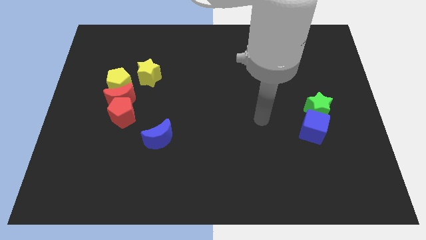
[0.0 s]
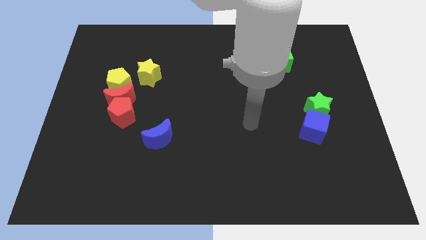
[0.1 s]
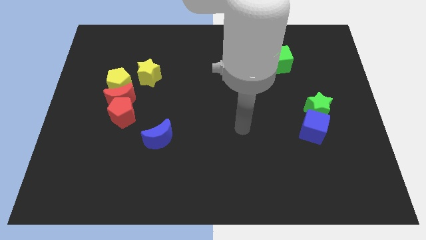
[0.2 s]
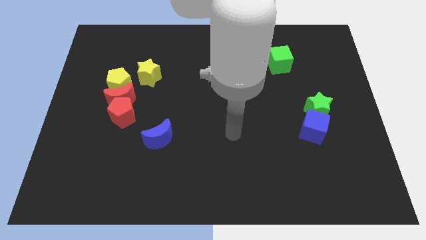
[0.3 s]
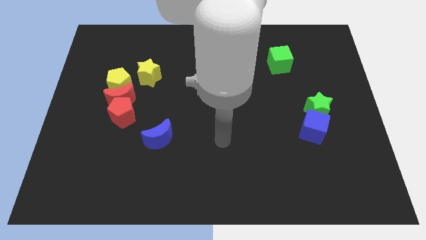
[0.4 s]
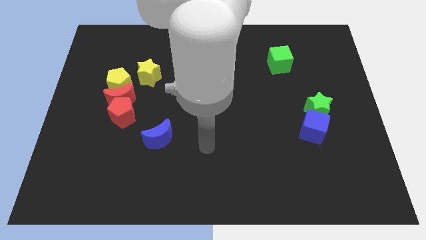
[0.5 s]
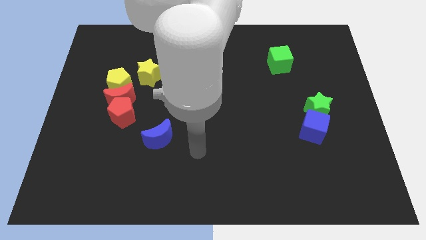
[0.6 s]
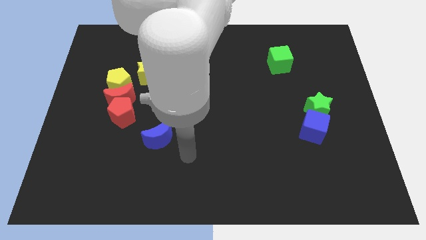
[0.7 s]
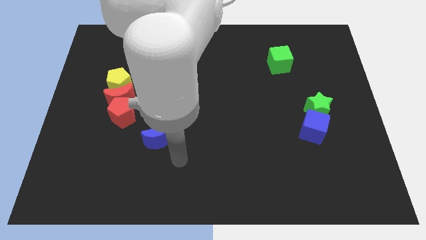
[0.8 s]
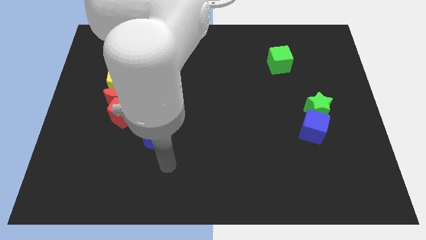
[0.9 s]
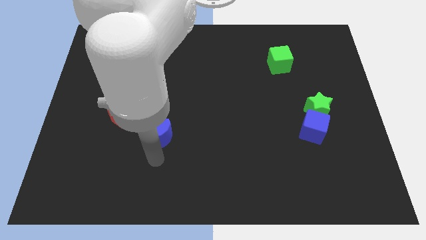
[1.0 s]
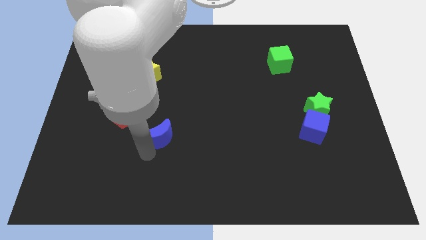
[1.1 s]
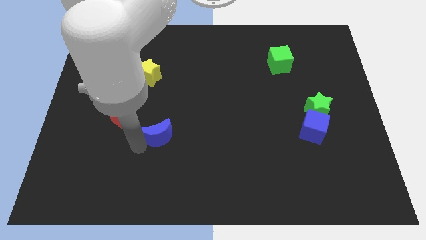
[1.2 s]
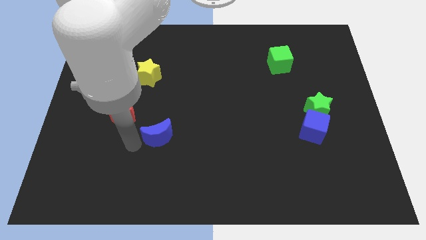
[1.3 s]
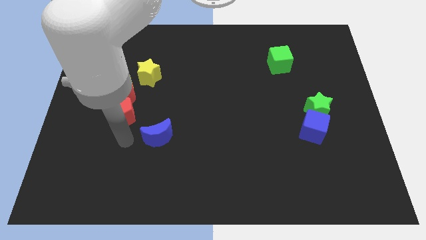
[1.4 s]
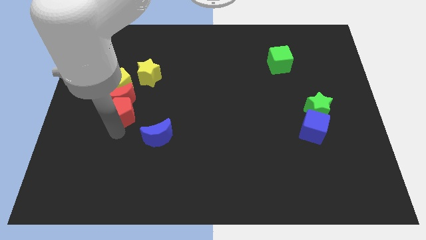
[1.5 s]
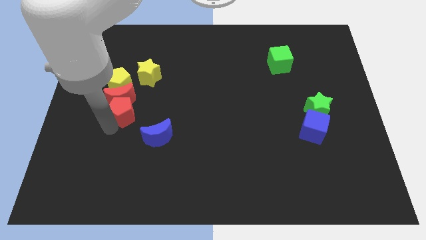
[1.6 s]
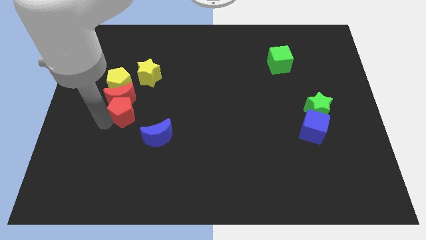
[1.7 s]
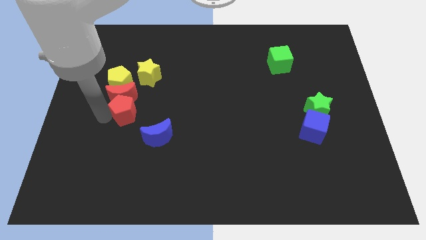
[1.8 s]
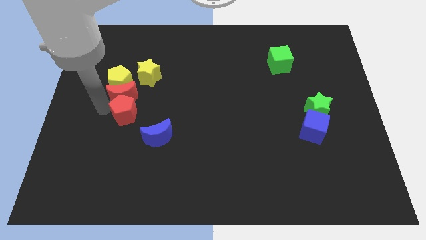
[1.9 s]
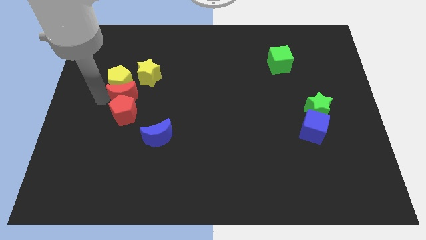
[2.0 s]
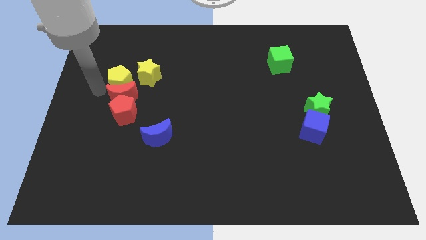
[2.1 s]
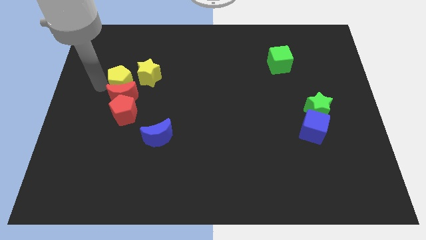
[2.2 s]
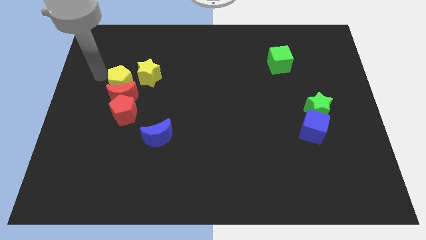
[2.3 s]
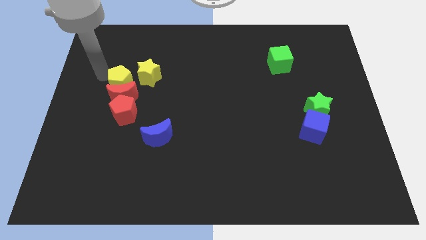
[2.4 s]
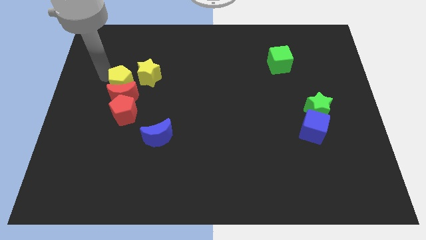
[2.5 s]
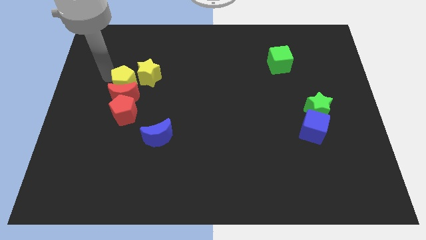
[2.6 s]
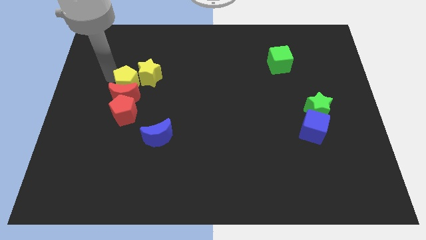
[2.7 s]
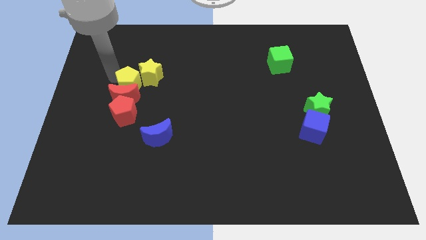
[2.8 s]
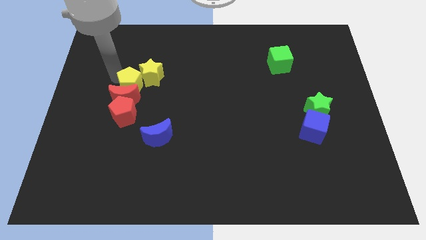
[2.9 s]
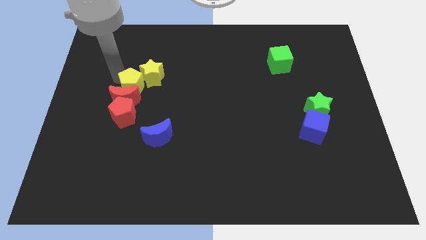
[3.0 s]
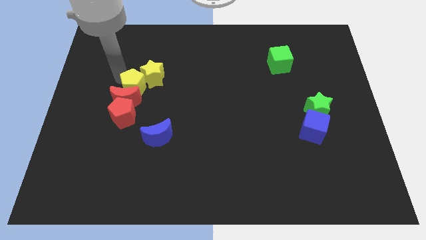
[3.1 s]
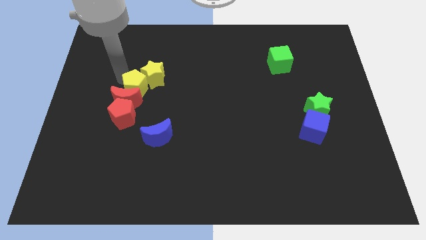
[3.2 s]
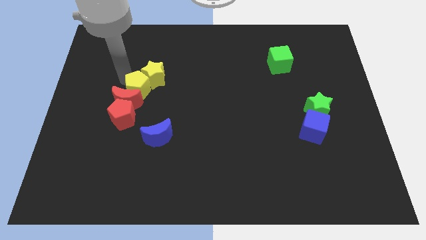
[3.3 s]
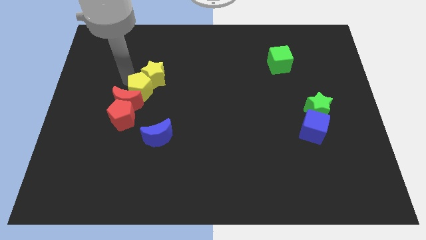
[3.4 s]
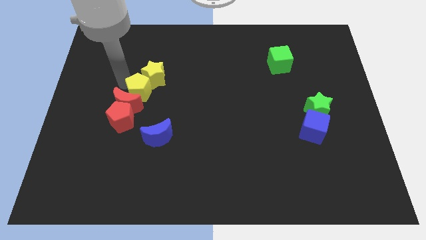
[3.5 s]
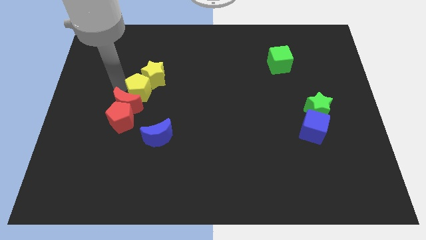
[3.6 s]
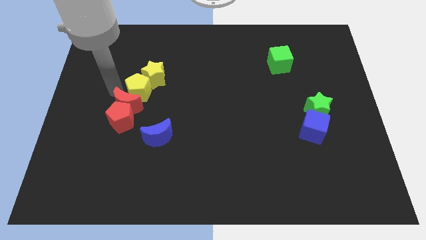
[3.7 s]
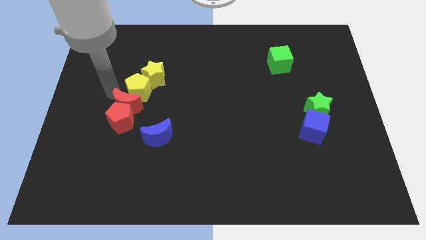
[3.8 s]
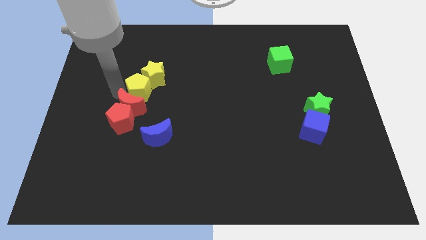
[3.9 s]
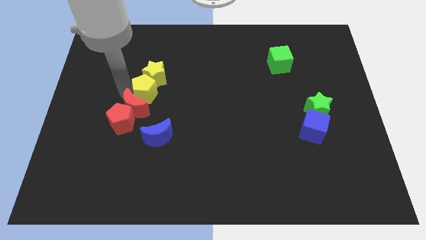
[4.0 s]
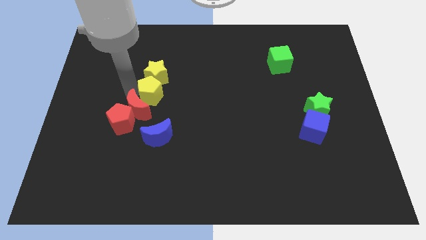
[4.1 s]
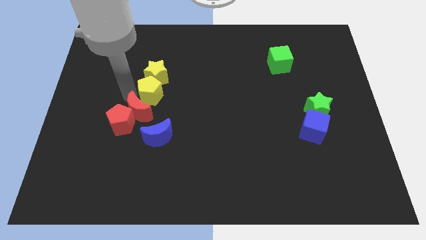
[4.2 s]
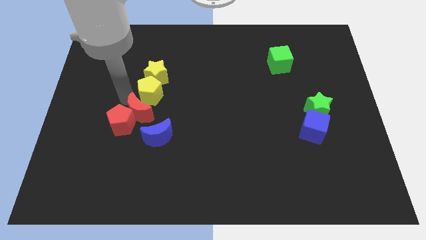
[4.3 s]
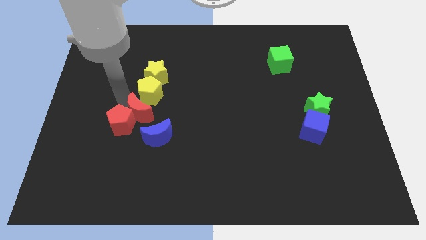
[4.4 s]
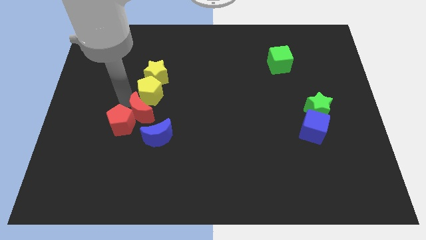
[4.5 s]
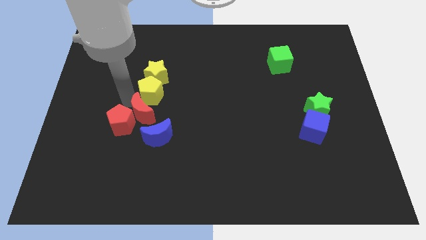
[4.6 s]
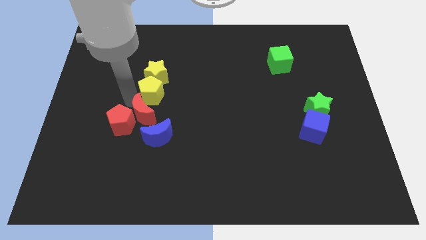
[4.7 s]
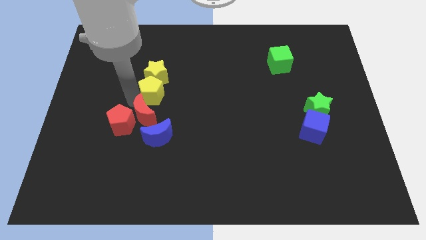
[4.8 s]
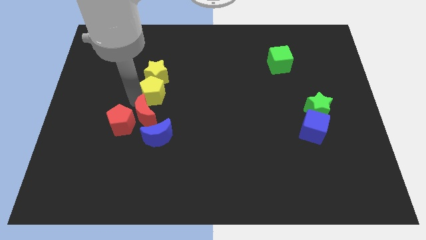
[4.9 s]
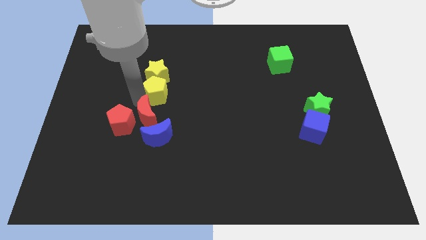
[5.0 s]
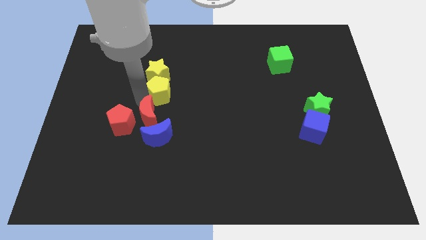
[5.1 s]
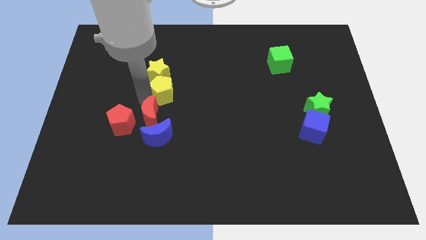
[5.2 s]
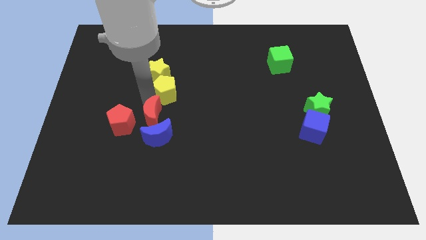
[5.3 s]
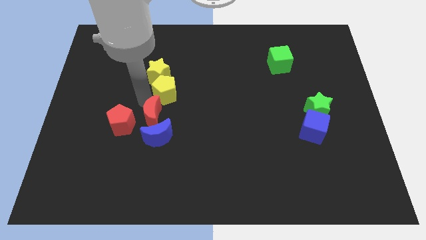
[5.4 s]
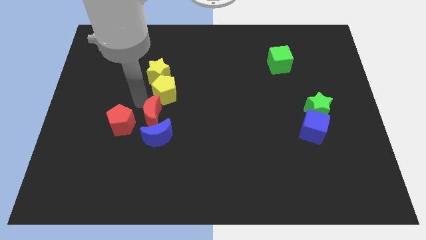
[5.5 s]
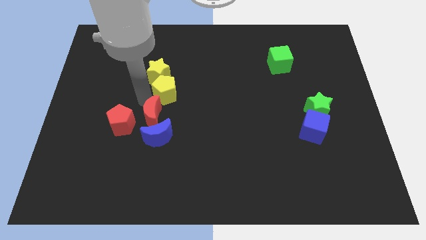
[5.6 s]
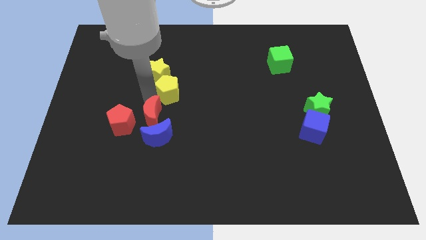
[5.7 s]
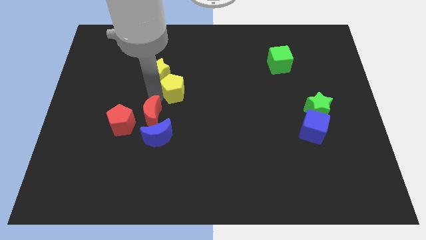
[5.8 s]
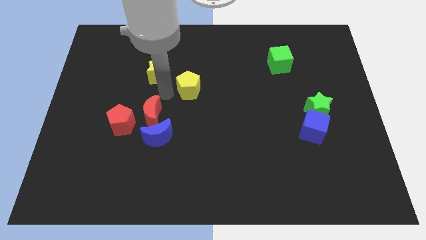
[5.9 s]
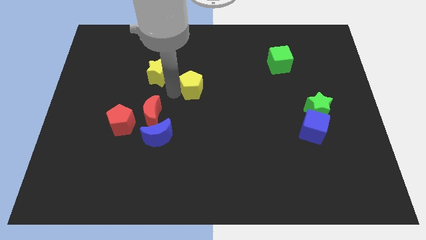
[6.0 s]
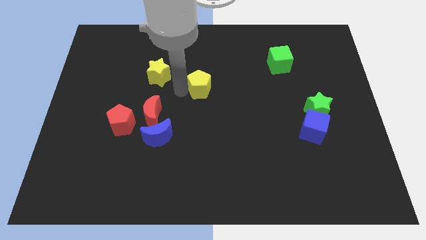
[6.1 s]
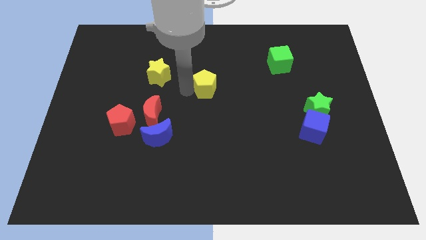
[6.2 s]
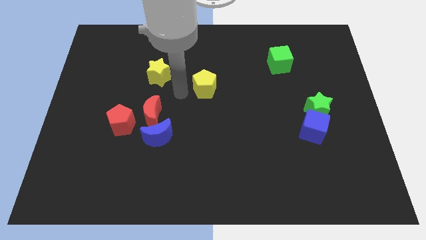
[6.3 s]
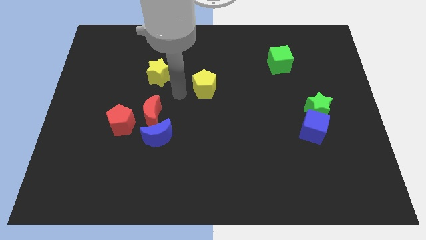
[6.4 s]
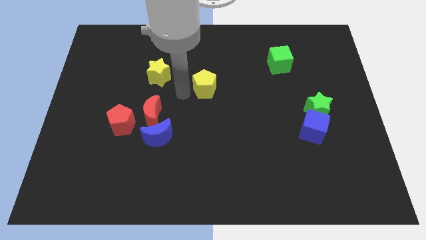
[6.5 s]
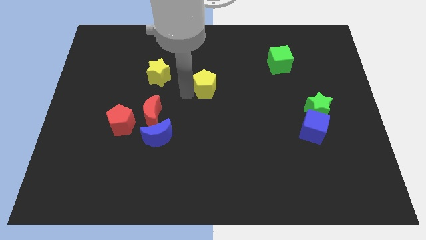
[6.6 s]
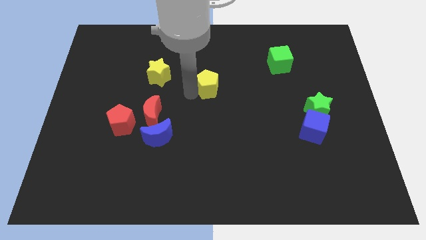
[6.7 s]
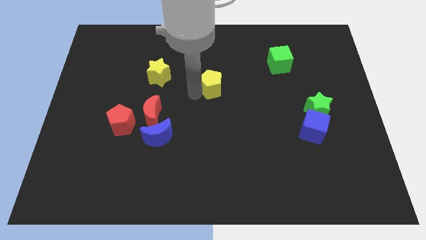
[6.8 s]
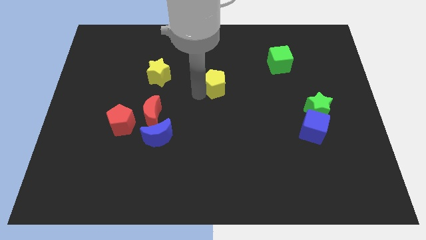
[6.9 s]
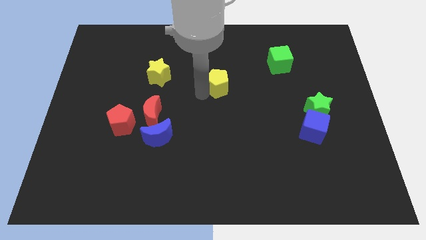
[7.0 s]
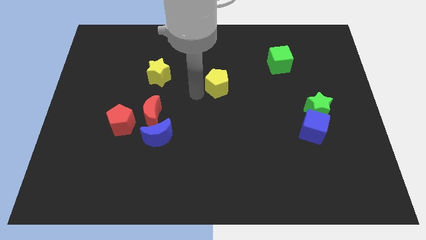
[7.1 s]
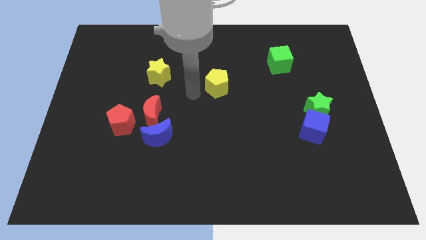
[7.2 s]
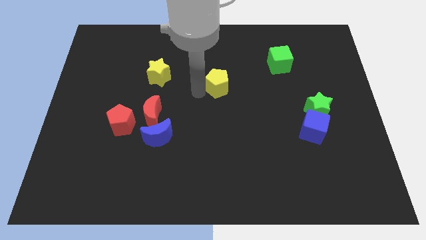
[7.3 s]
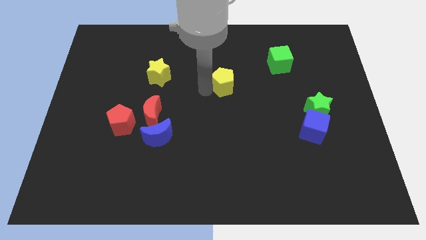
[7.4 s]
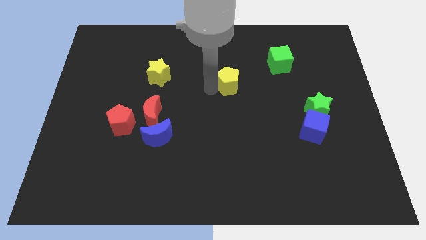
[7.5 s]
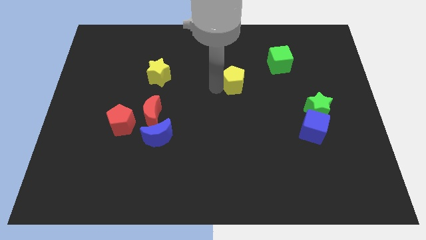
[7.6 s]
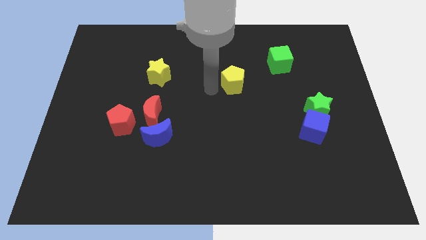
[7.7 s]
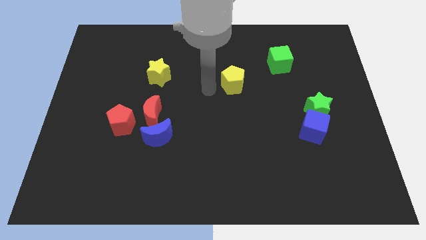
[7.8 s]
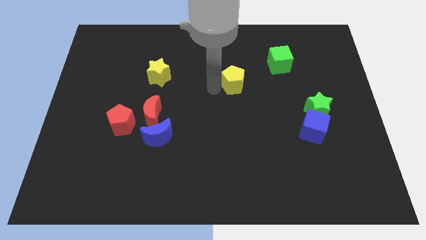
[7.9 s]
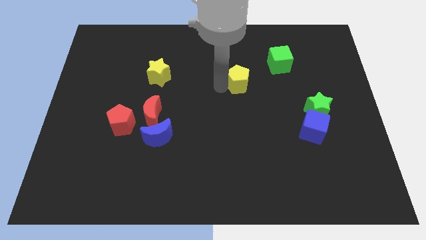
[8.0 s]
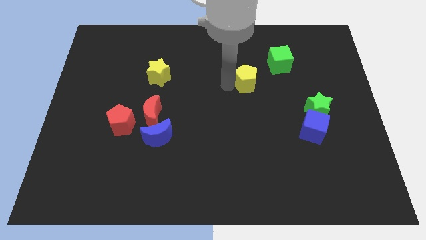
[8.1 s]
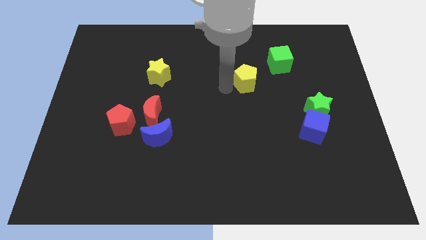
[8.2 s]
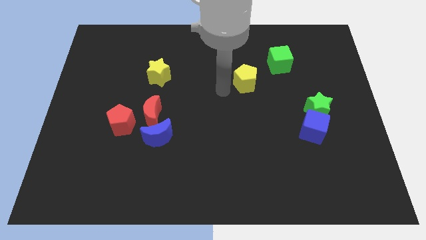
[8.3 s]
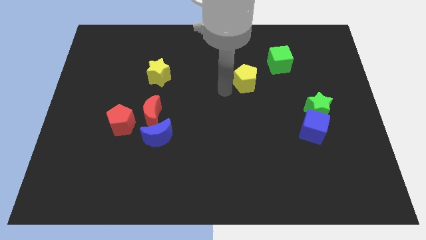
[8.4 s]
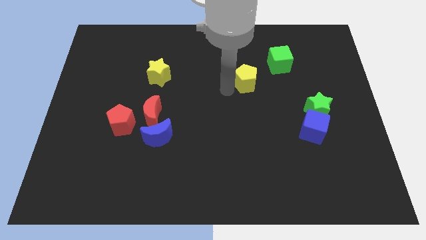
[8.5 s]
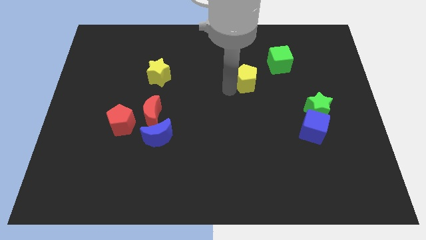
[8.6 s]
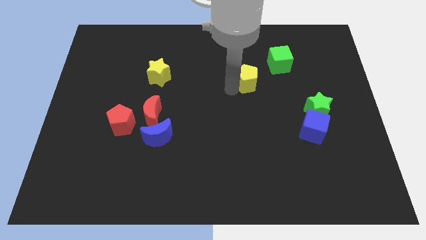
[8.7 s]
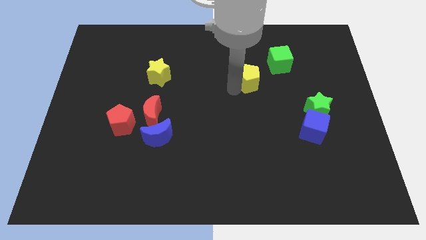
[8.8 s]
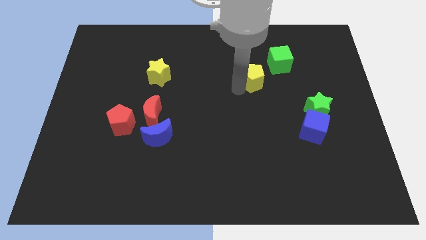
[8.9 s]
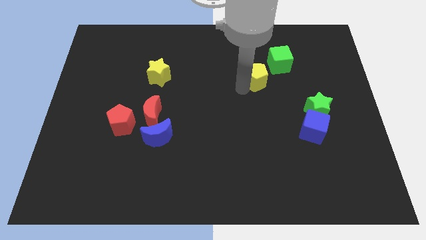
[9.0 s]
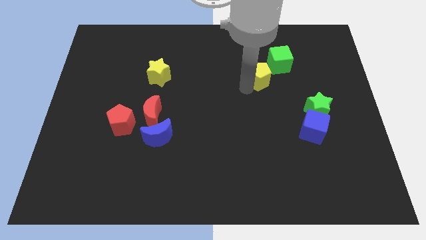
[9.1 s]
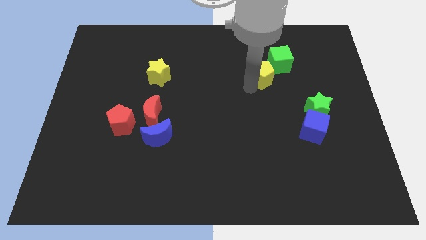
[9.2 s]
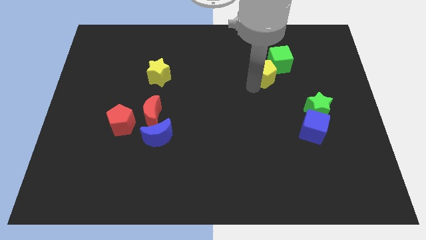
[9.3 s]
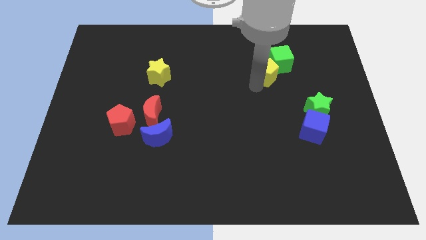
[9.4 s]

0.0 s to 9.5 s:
slide the yellow pentagon close to the green cube
